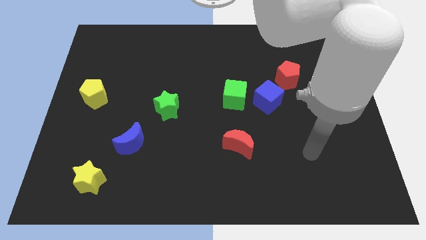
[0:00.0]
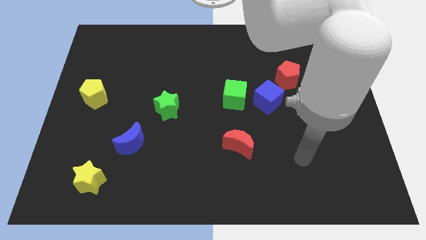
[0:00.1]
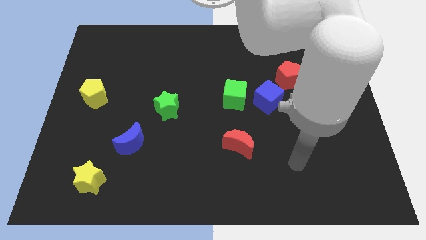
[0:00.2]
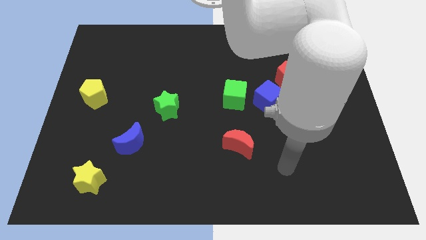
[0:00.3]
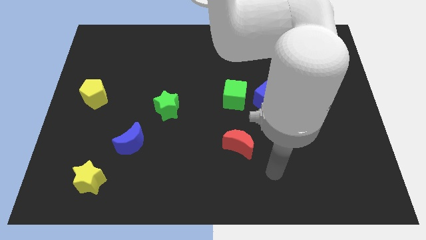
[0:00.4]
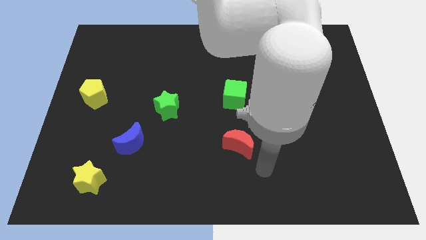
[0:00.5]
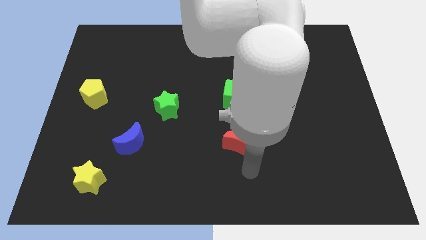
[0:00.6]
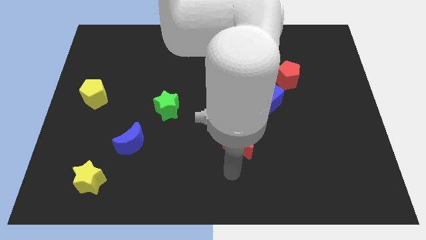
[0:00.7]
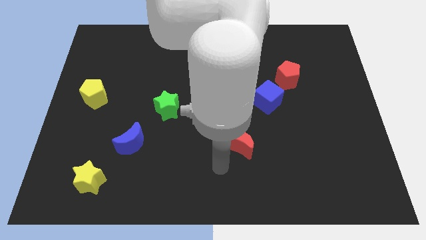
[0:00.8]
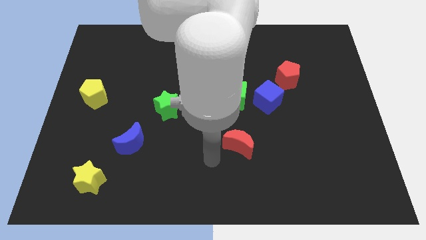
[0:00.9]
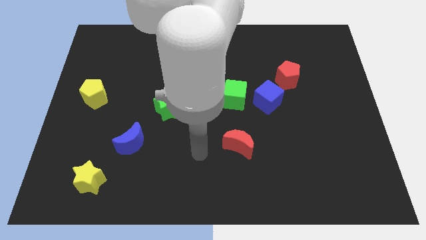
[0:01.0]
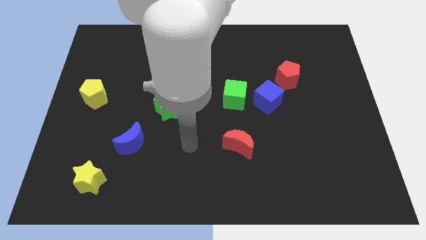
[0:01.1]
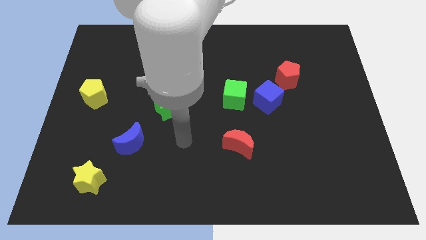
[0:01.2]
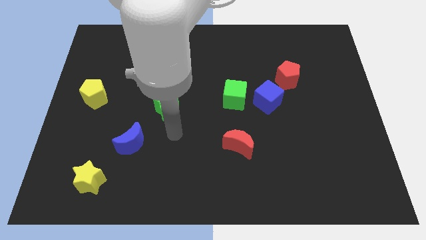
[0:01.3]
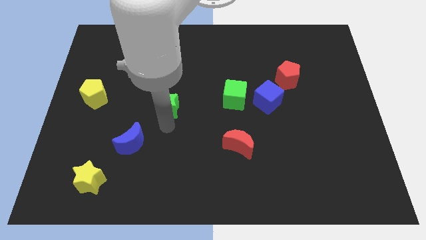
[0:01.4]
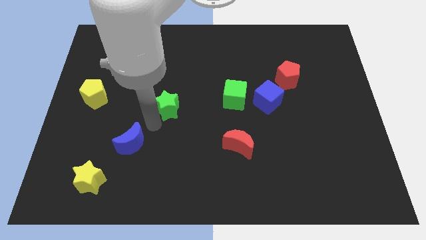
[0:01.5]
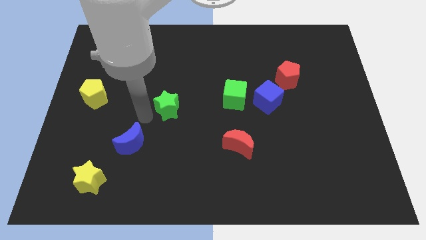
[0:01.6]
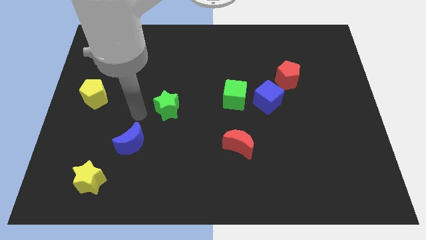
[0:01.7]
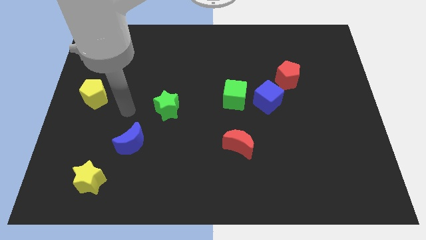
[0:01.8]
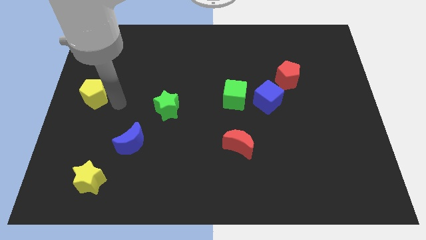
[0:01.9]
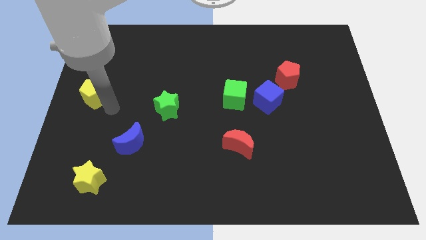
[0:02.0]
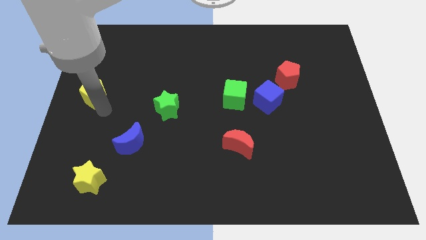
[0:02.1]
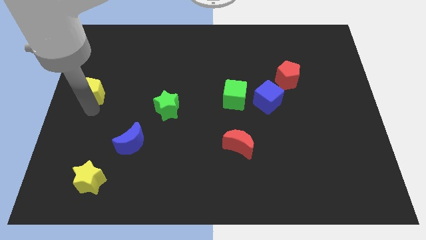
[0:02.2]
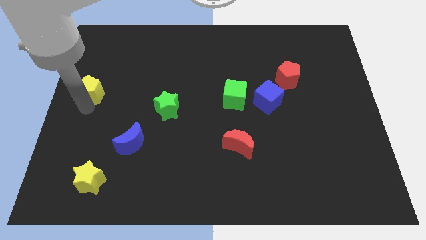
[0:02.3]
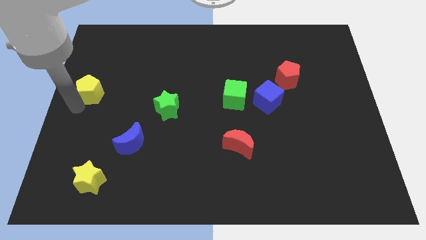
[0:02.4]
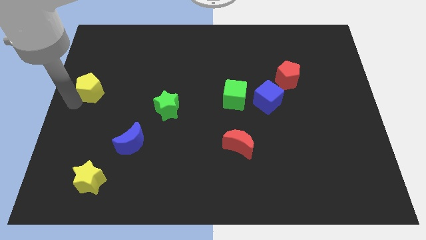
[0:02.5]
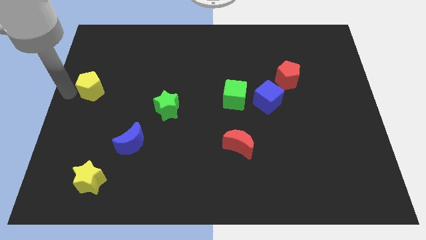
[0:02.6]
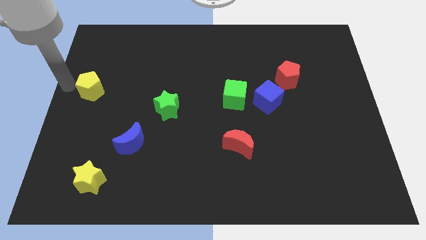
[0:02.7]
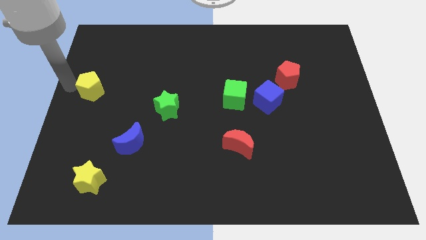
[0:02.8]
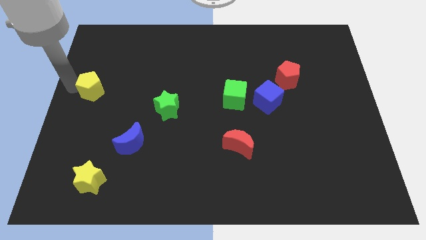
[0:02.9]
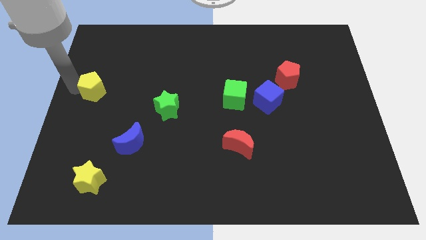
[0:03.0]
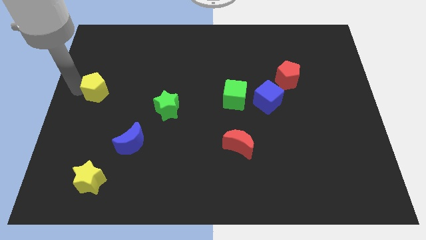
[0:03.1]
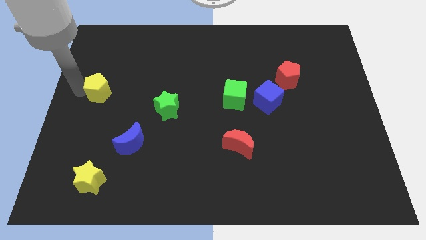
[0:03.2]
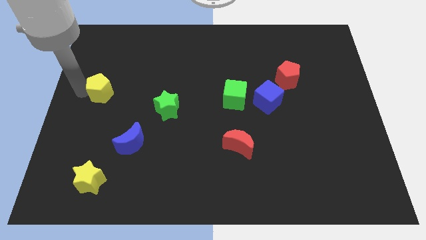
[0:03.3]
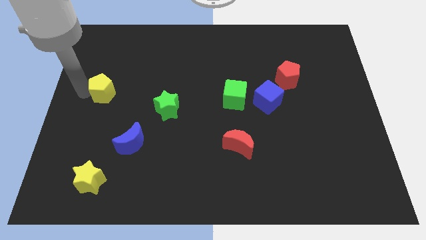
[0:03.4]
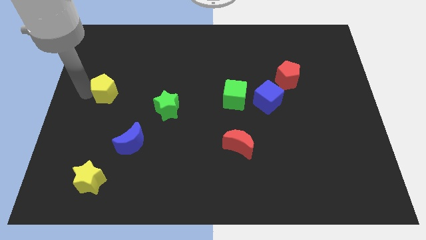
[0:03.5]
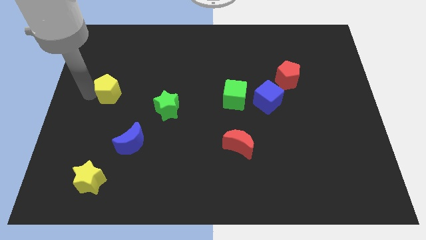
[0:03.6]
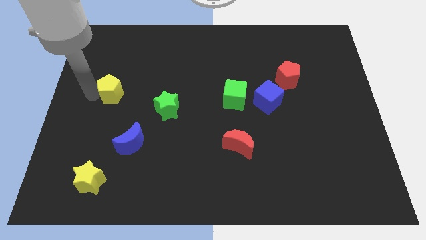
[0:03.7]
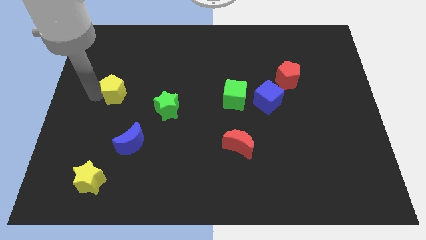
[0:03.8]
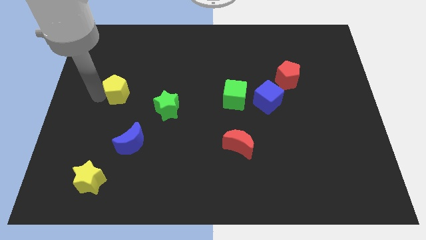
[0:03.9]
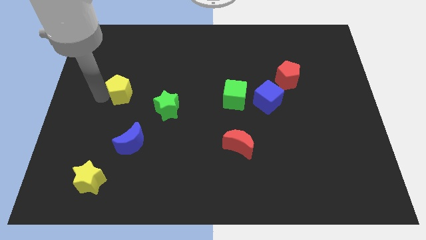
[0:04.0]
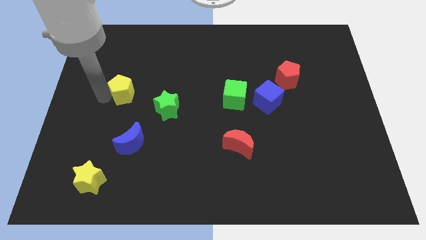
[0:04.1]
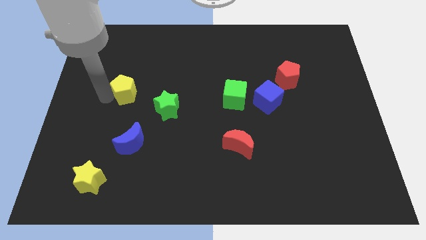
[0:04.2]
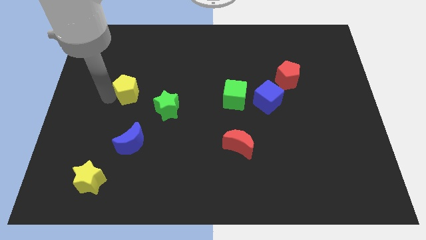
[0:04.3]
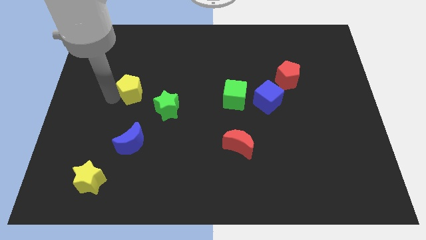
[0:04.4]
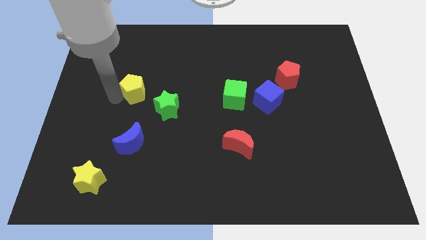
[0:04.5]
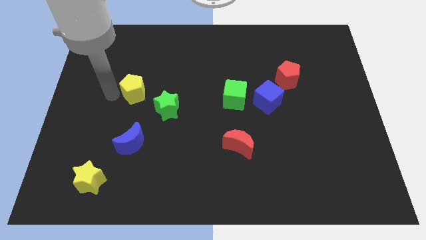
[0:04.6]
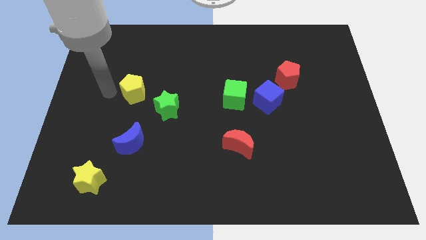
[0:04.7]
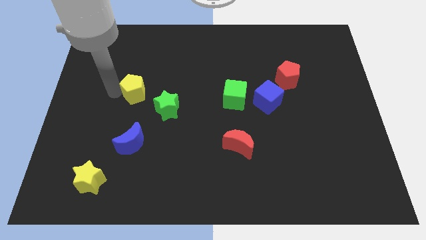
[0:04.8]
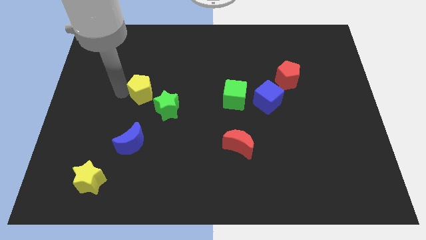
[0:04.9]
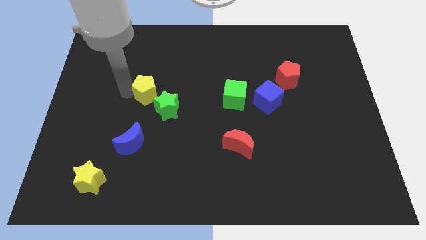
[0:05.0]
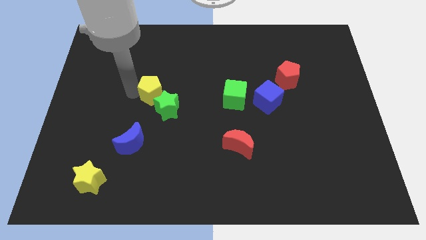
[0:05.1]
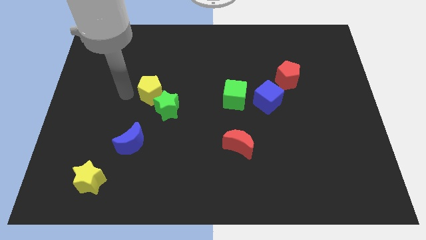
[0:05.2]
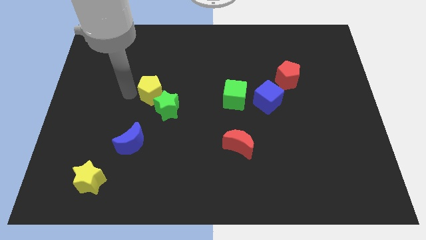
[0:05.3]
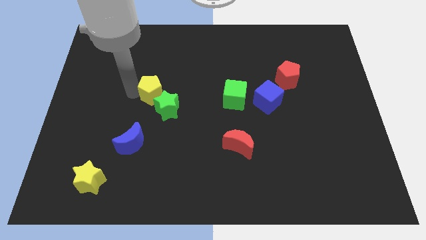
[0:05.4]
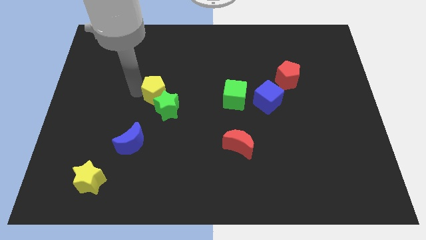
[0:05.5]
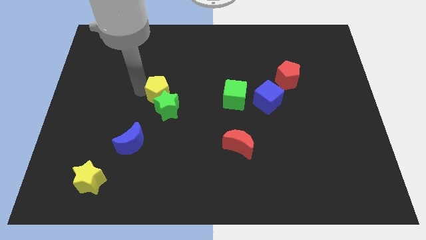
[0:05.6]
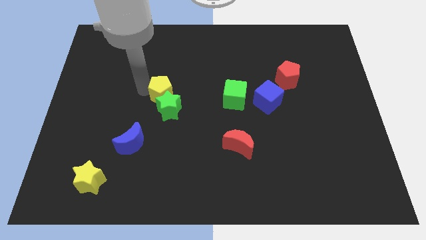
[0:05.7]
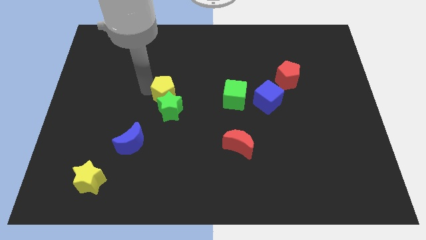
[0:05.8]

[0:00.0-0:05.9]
push the yellow pentagon to the top right of the green star
